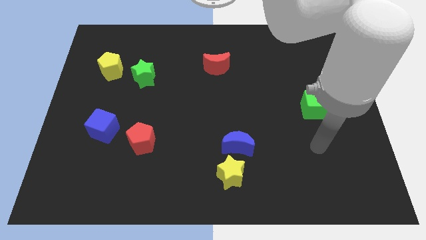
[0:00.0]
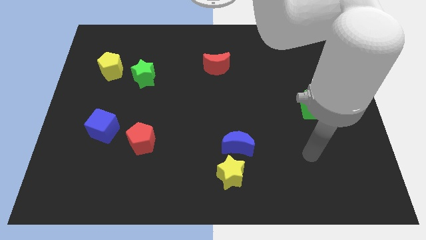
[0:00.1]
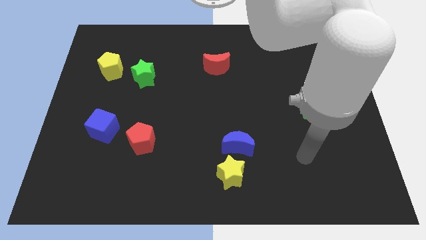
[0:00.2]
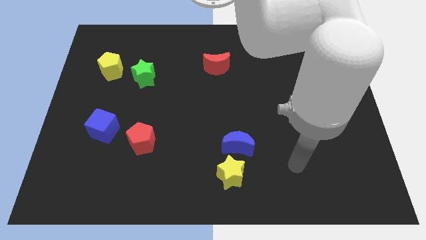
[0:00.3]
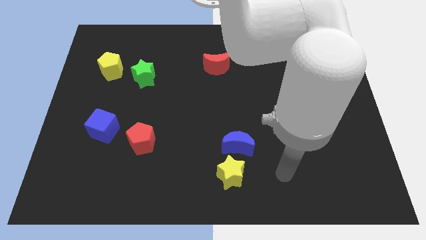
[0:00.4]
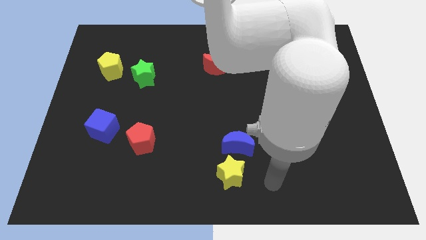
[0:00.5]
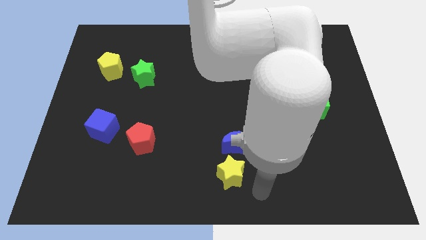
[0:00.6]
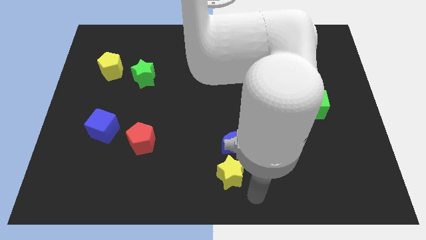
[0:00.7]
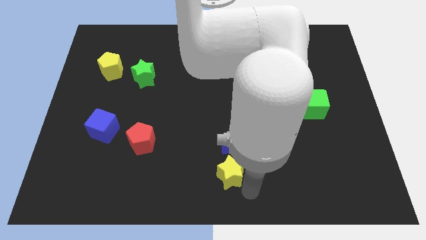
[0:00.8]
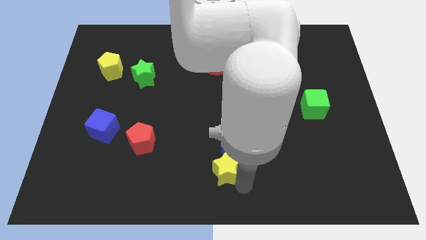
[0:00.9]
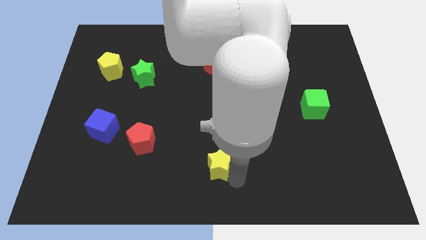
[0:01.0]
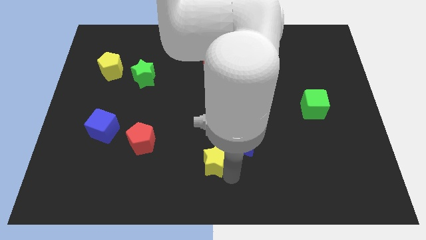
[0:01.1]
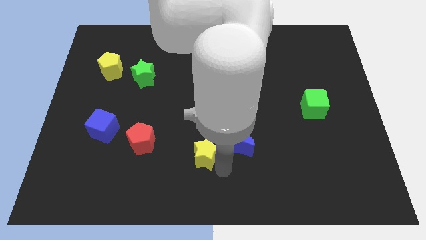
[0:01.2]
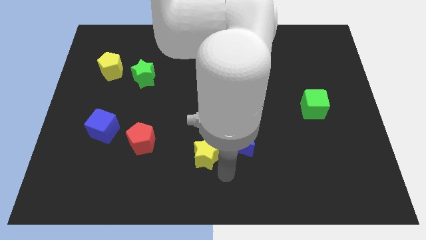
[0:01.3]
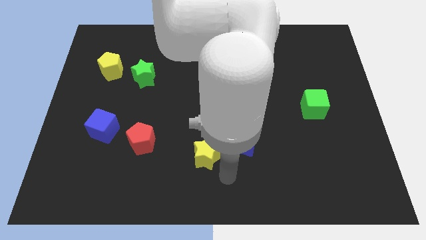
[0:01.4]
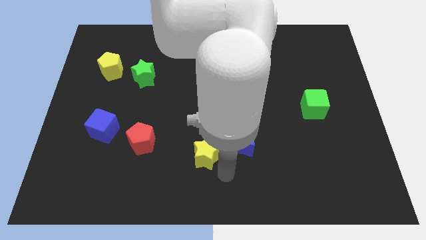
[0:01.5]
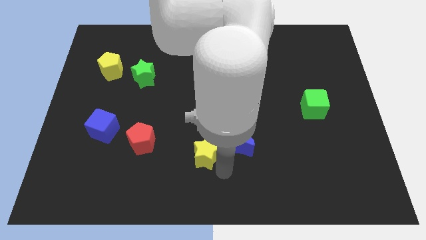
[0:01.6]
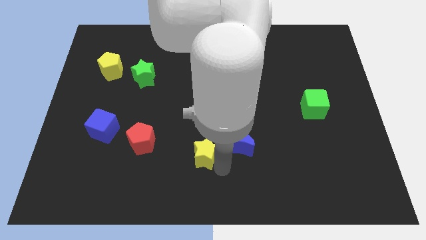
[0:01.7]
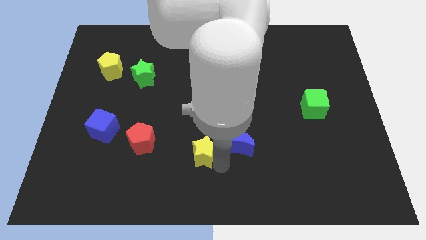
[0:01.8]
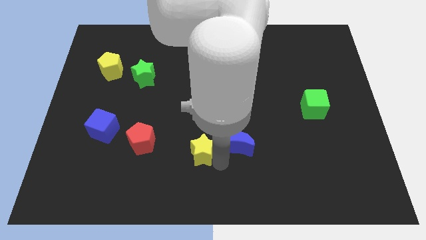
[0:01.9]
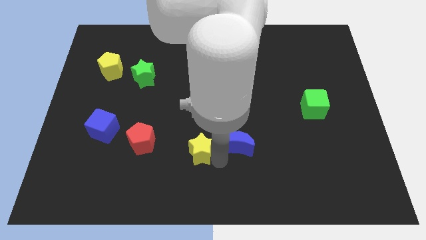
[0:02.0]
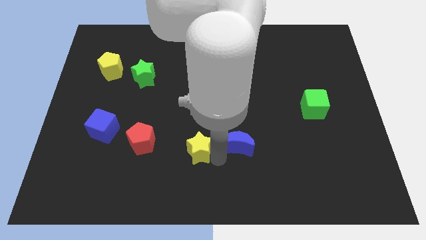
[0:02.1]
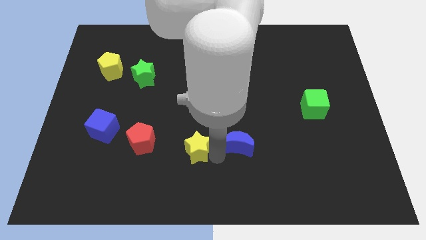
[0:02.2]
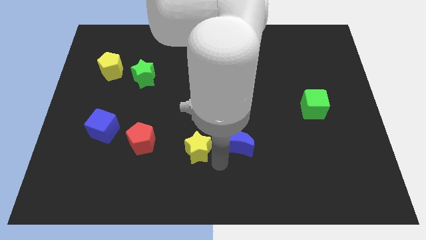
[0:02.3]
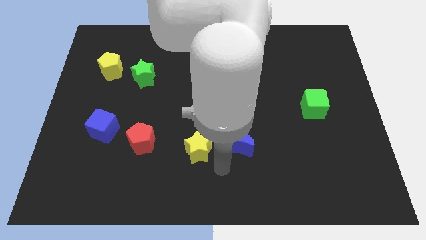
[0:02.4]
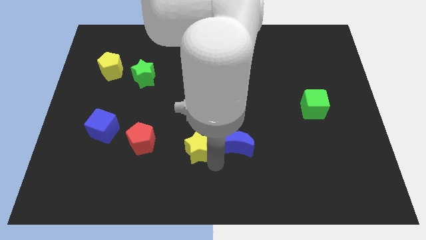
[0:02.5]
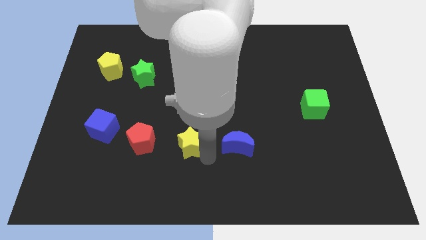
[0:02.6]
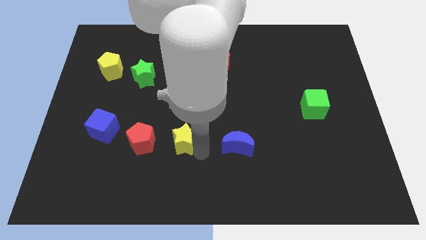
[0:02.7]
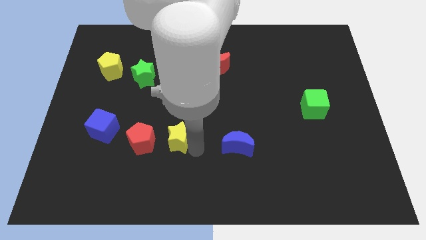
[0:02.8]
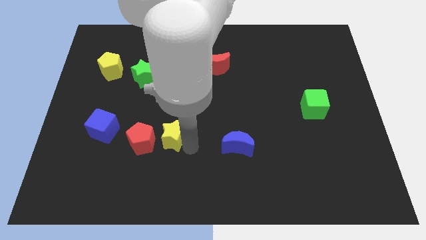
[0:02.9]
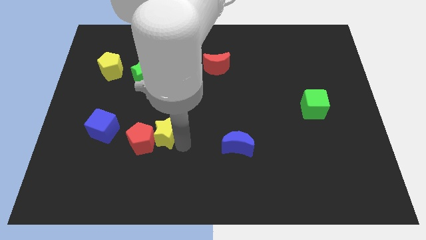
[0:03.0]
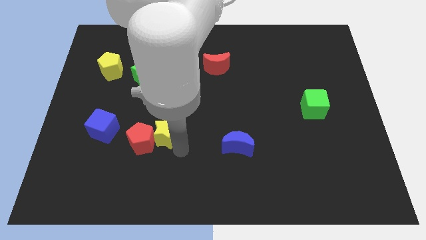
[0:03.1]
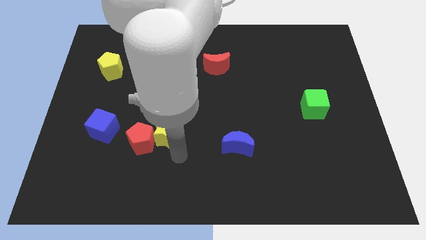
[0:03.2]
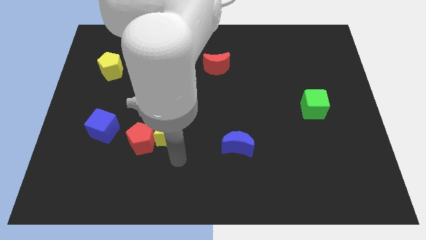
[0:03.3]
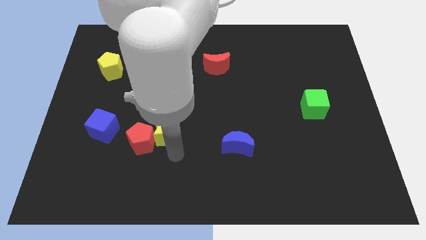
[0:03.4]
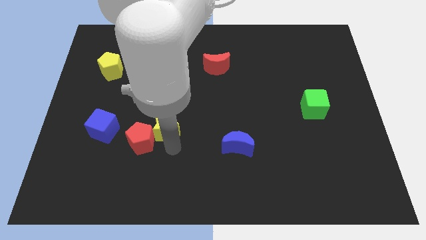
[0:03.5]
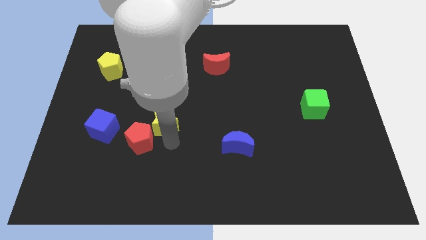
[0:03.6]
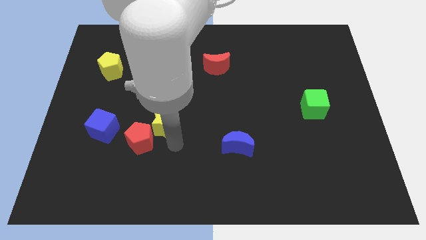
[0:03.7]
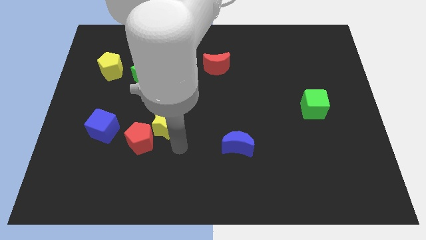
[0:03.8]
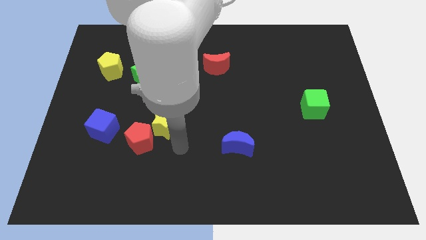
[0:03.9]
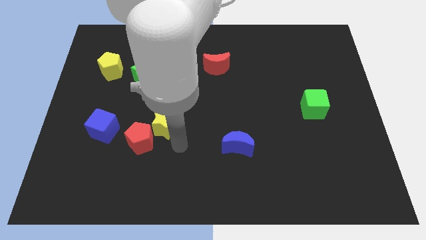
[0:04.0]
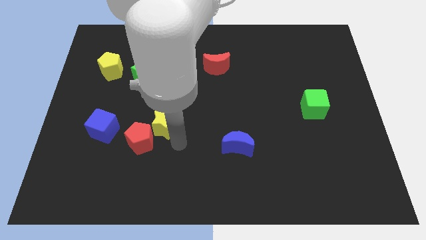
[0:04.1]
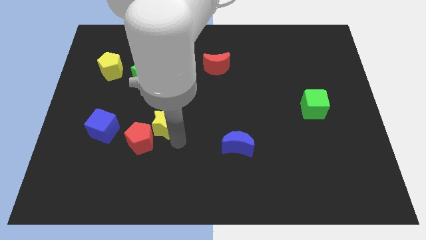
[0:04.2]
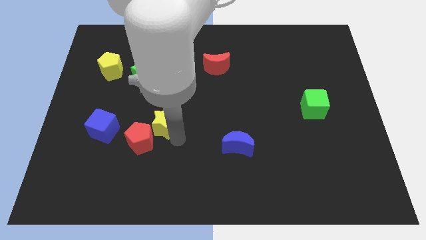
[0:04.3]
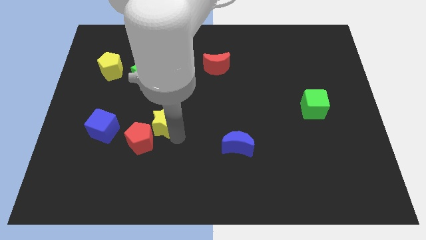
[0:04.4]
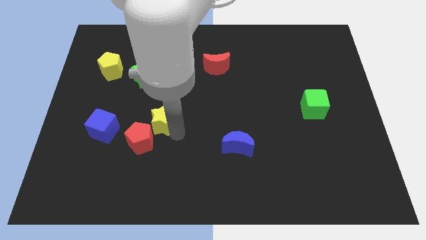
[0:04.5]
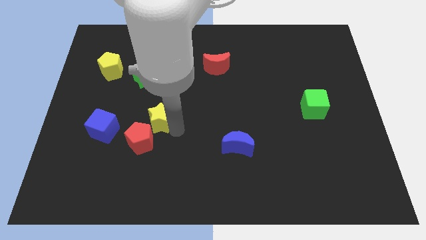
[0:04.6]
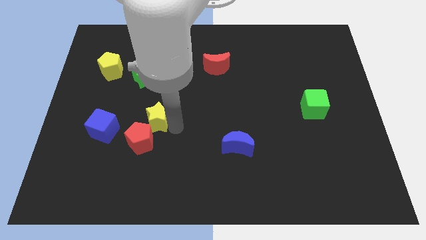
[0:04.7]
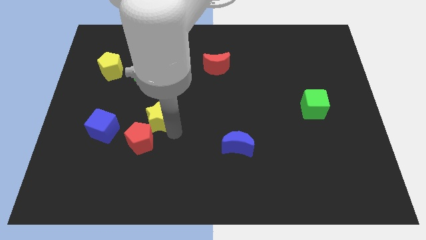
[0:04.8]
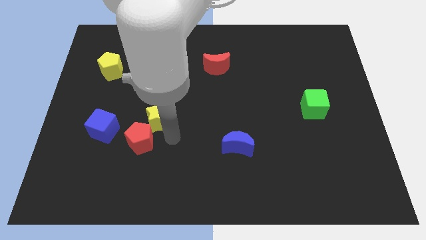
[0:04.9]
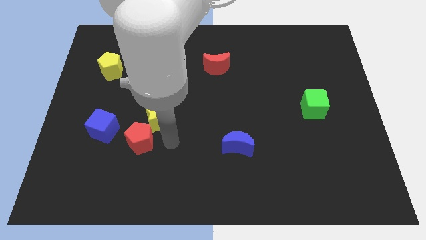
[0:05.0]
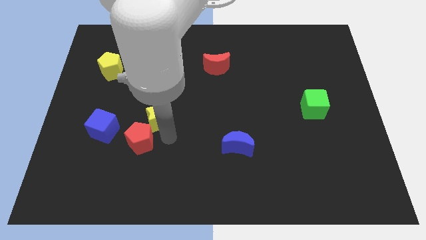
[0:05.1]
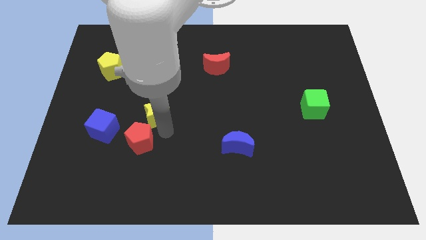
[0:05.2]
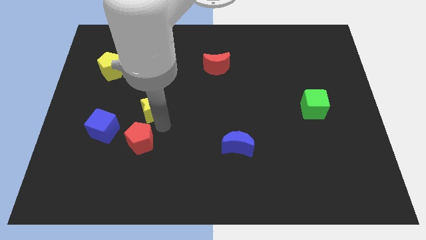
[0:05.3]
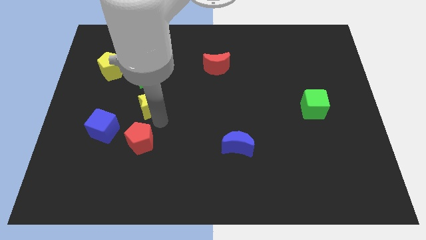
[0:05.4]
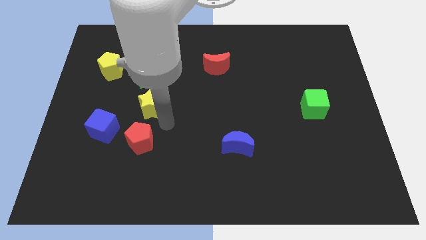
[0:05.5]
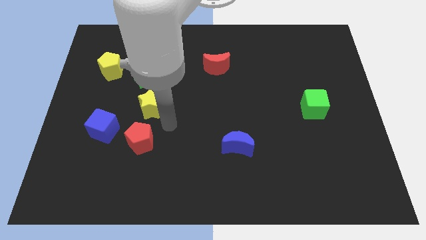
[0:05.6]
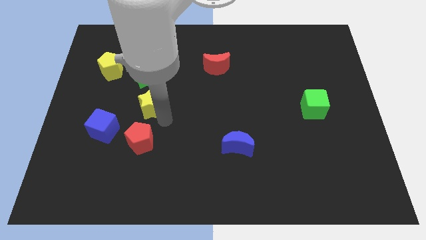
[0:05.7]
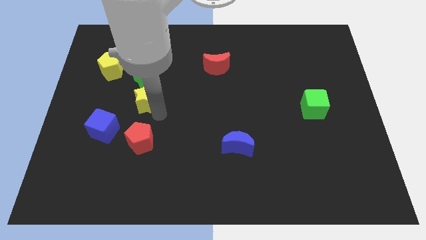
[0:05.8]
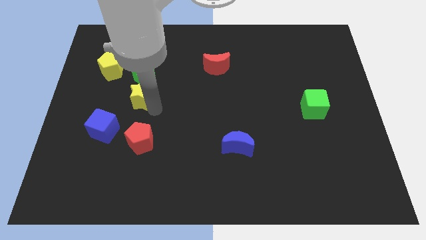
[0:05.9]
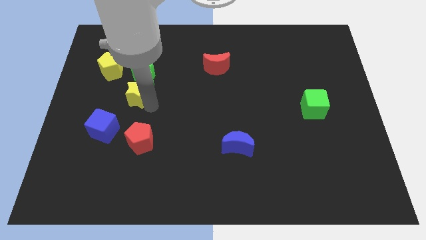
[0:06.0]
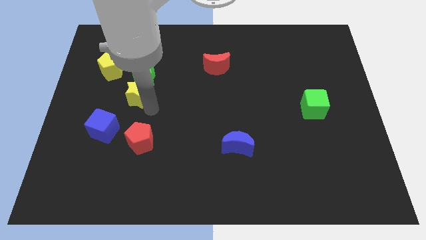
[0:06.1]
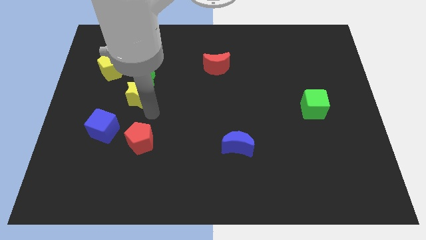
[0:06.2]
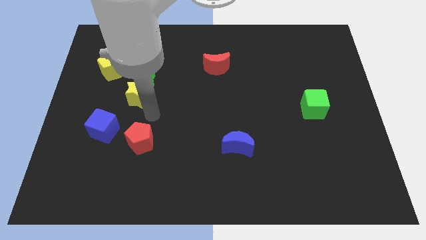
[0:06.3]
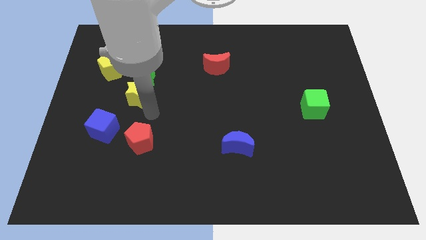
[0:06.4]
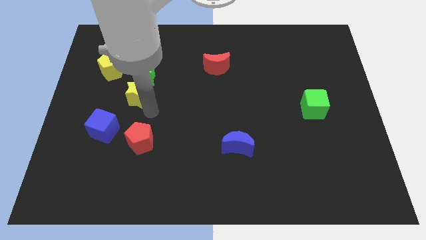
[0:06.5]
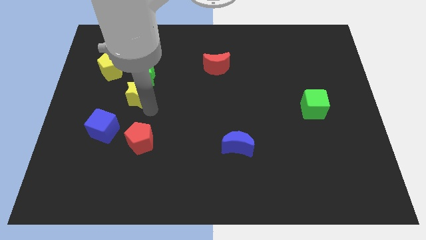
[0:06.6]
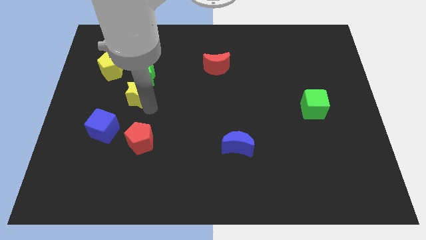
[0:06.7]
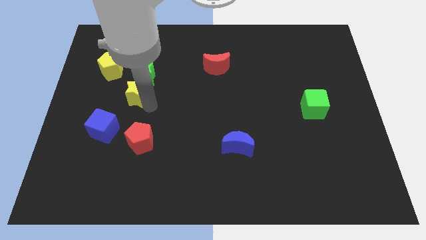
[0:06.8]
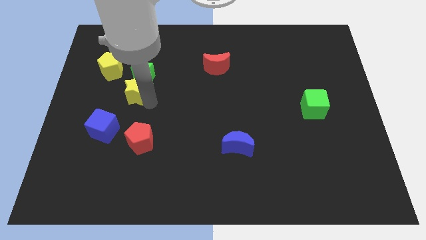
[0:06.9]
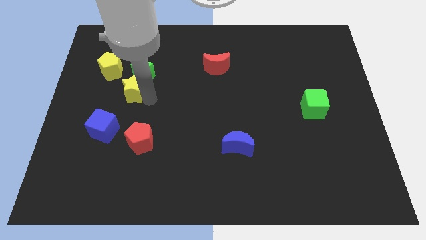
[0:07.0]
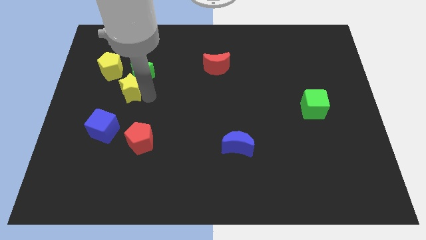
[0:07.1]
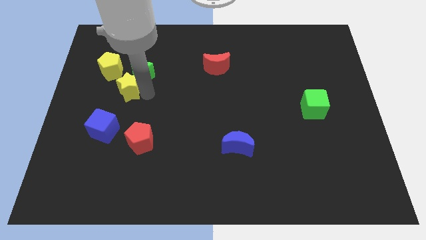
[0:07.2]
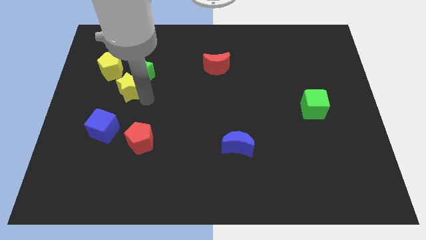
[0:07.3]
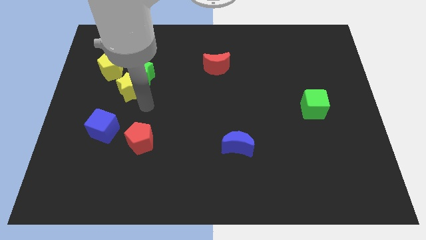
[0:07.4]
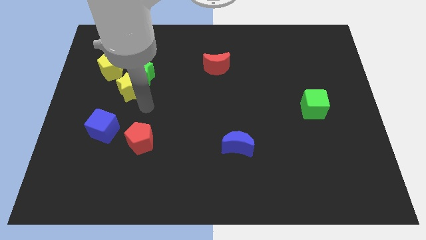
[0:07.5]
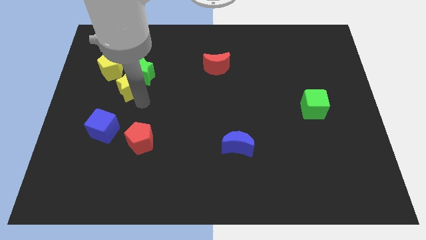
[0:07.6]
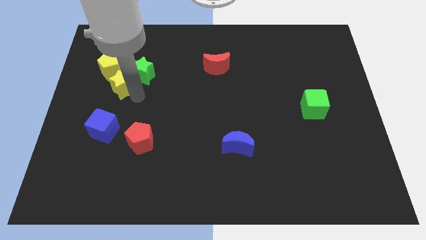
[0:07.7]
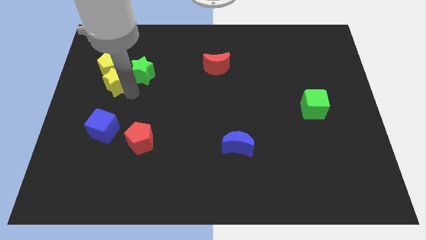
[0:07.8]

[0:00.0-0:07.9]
put the yellow star close to the yellow pentagon

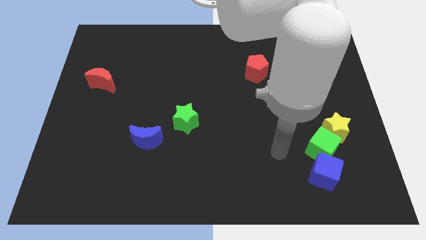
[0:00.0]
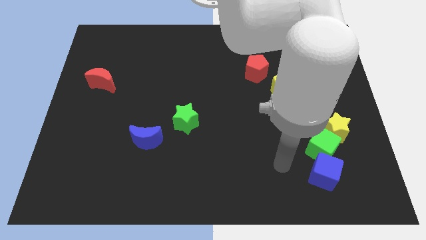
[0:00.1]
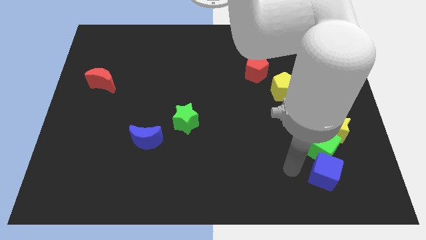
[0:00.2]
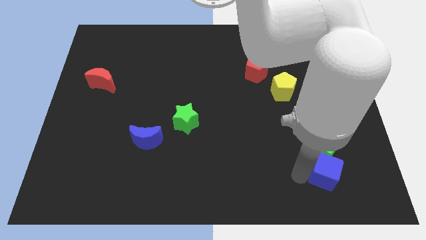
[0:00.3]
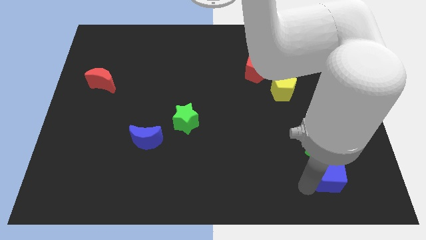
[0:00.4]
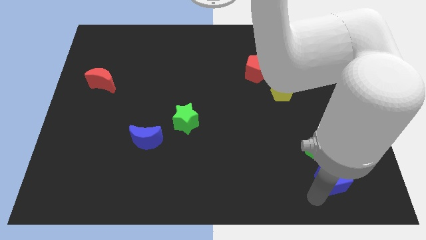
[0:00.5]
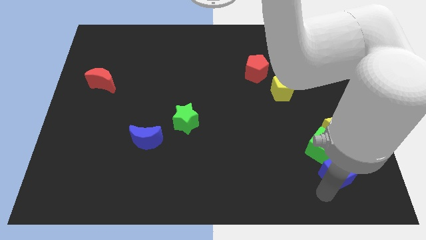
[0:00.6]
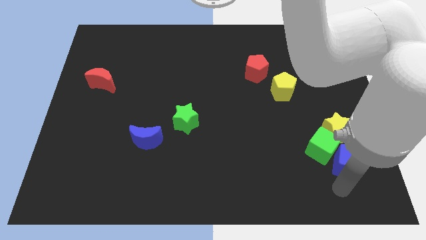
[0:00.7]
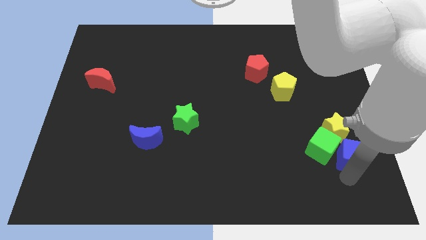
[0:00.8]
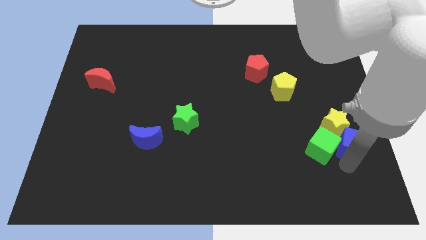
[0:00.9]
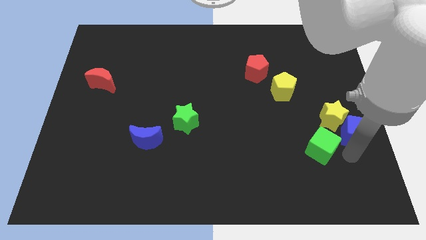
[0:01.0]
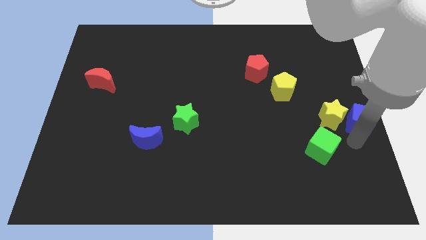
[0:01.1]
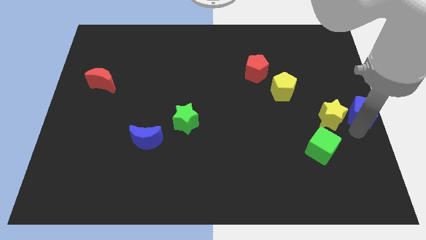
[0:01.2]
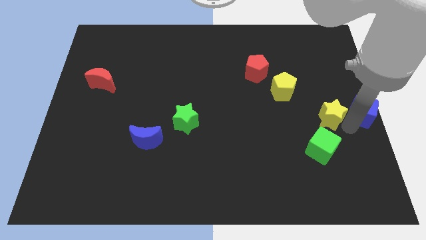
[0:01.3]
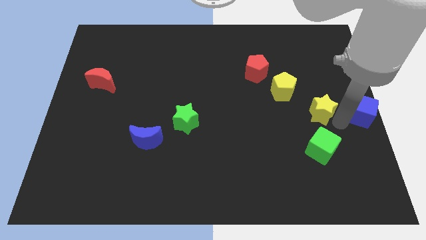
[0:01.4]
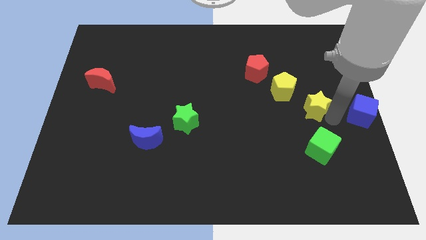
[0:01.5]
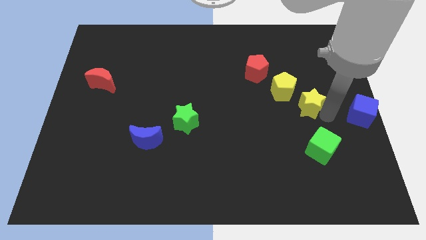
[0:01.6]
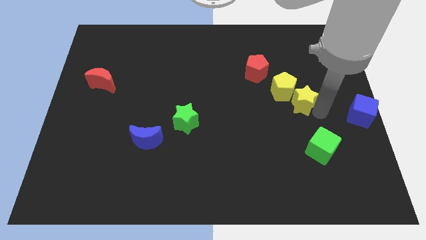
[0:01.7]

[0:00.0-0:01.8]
push the yellow star to the yellow pentagon
